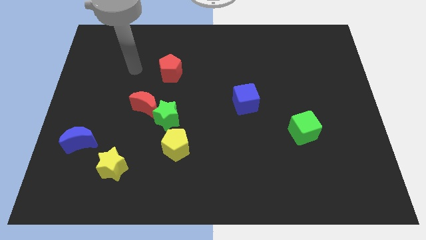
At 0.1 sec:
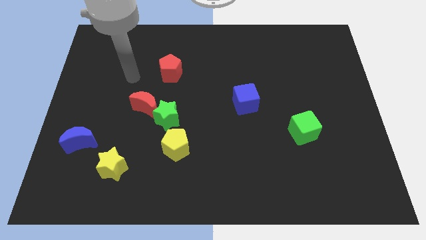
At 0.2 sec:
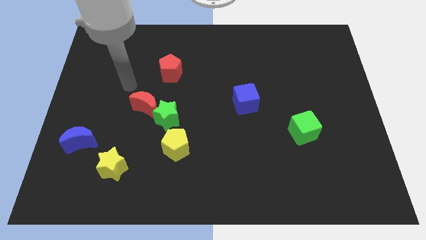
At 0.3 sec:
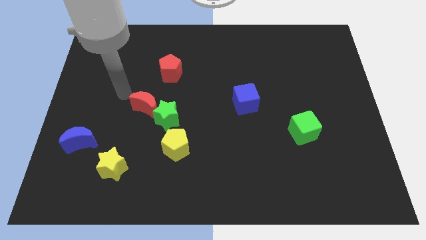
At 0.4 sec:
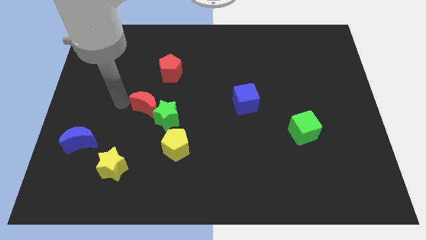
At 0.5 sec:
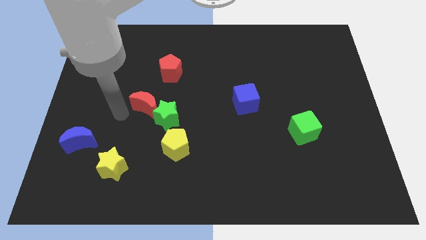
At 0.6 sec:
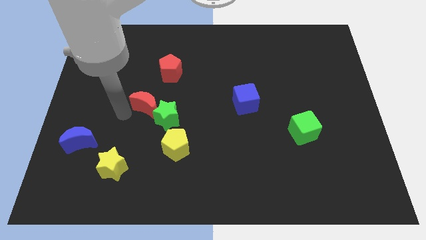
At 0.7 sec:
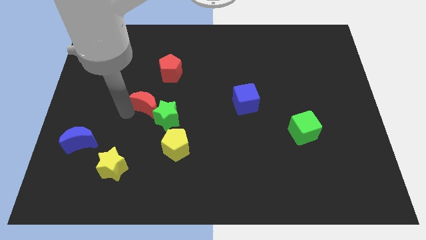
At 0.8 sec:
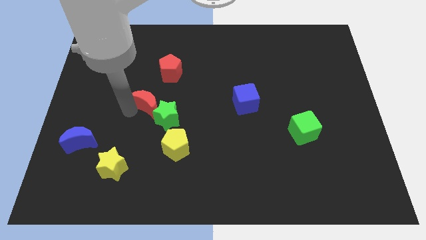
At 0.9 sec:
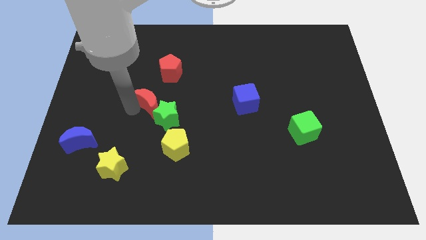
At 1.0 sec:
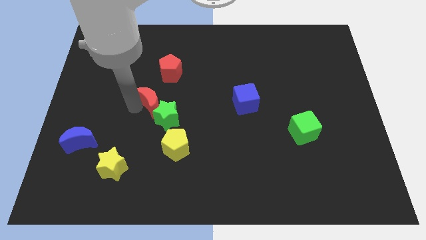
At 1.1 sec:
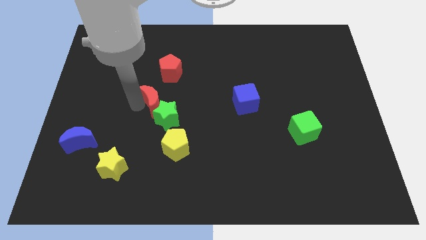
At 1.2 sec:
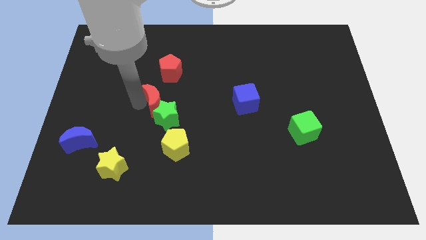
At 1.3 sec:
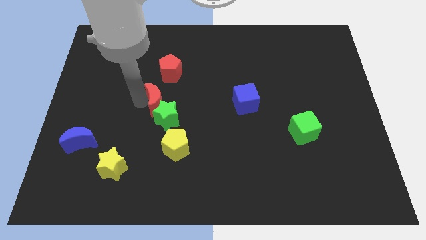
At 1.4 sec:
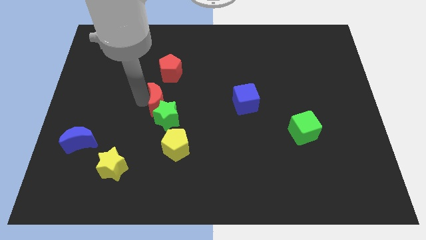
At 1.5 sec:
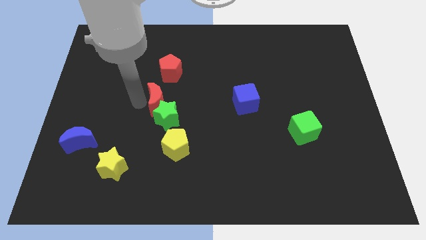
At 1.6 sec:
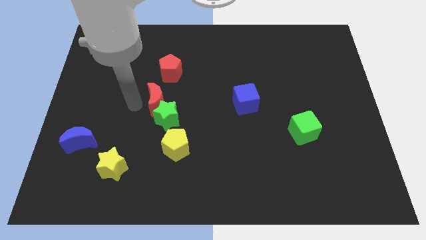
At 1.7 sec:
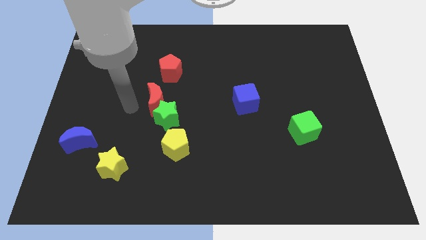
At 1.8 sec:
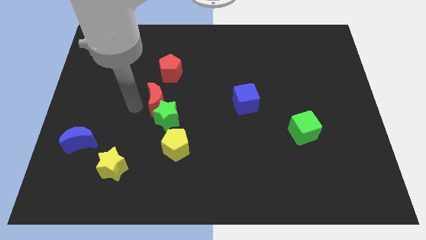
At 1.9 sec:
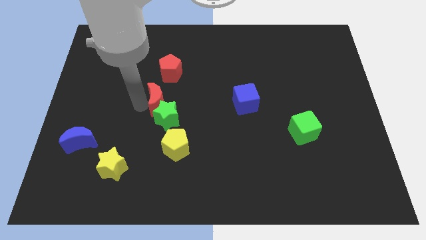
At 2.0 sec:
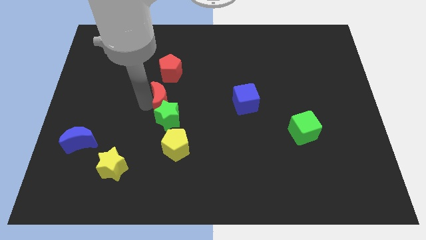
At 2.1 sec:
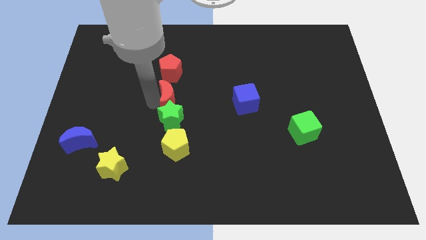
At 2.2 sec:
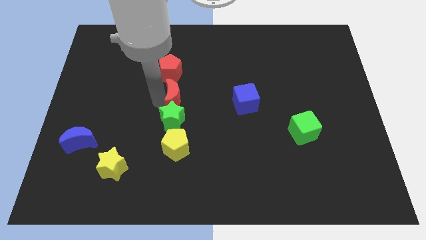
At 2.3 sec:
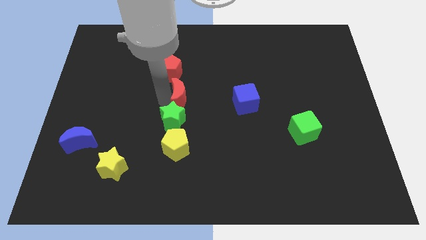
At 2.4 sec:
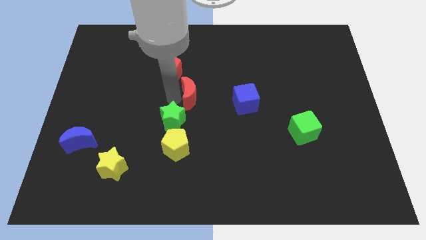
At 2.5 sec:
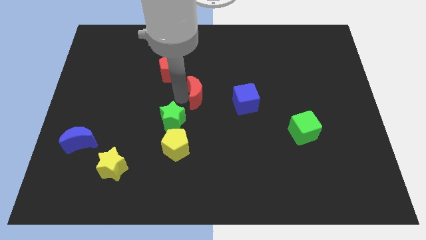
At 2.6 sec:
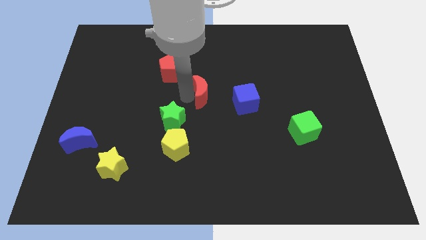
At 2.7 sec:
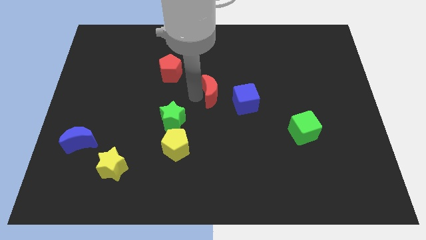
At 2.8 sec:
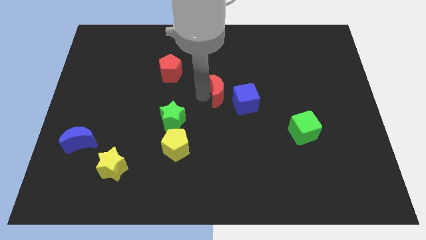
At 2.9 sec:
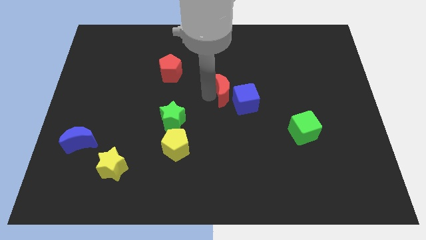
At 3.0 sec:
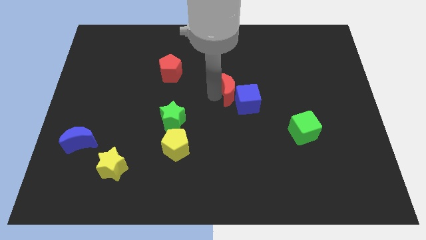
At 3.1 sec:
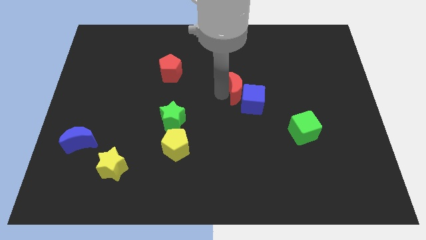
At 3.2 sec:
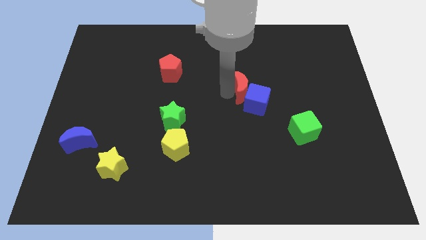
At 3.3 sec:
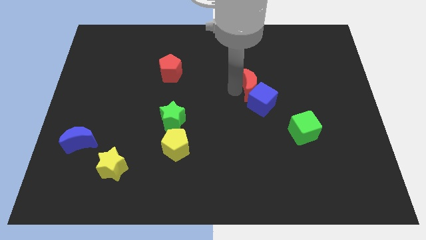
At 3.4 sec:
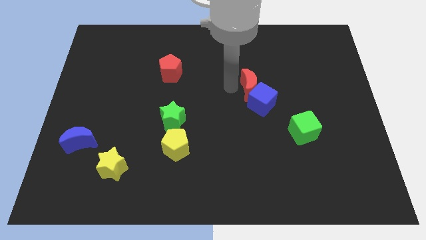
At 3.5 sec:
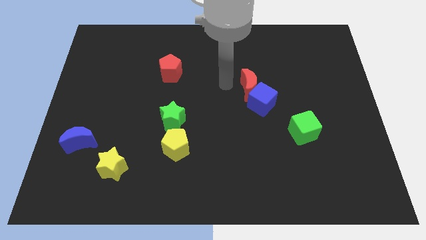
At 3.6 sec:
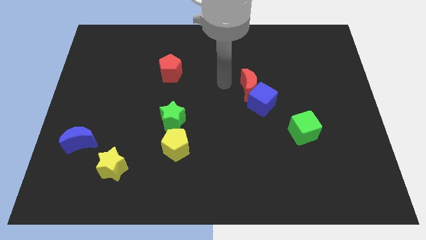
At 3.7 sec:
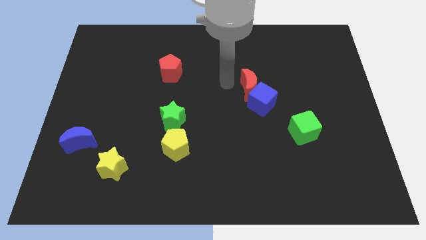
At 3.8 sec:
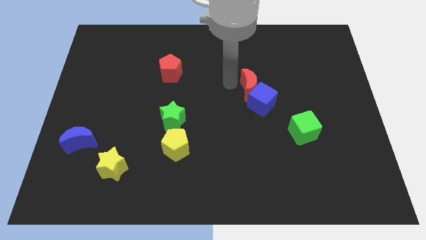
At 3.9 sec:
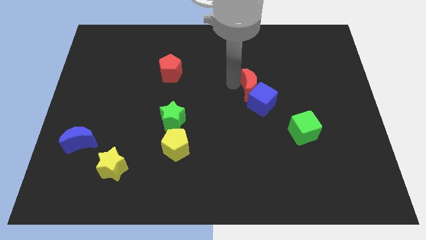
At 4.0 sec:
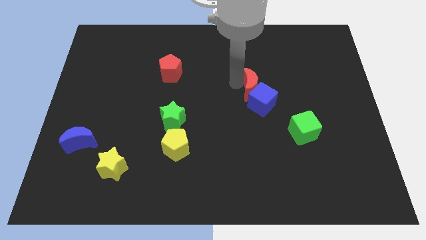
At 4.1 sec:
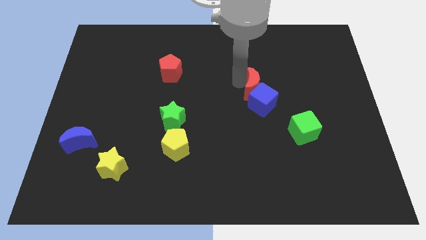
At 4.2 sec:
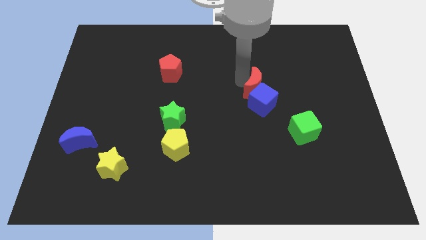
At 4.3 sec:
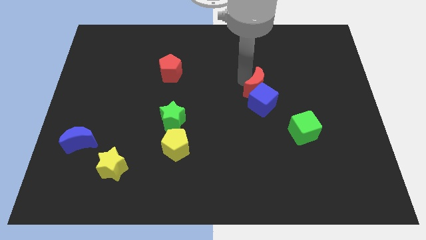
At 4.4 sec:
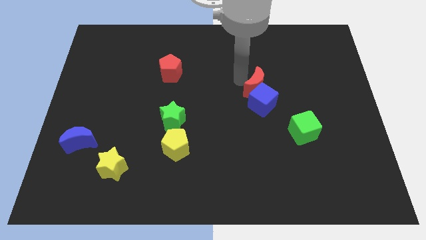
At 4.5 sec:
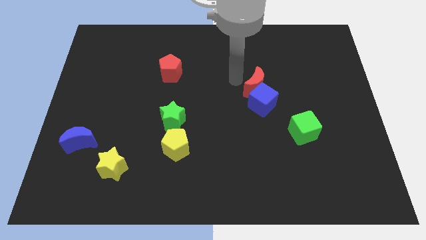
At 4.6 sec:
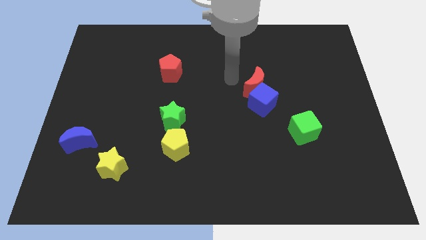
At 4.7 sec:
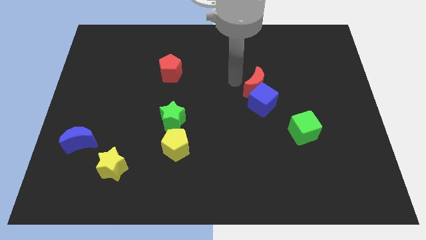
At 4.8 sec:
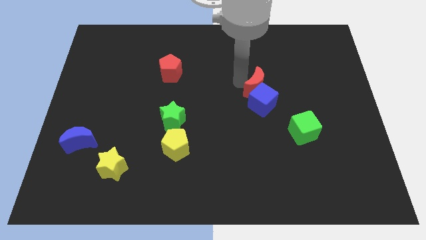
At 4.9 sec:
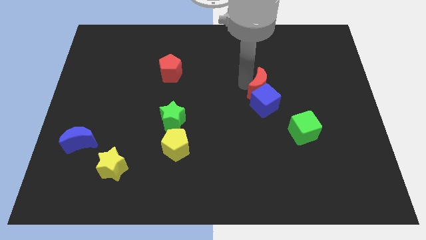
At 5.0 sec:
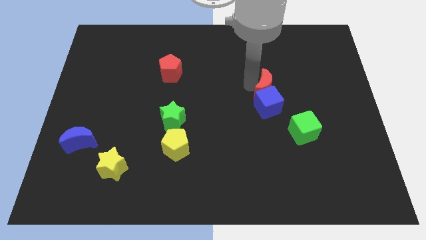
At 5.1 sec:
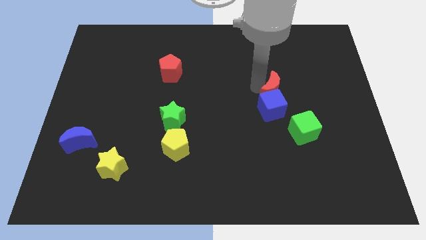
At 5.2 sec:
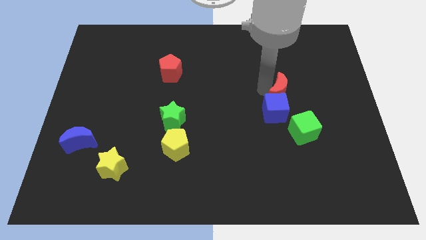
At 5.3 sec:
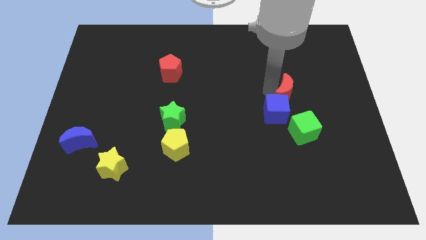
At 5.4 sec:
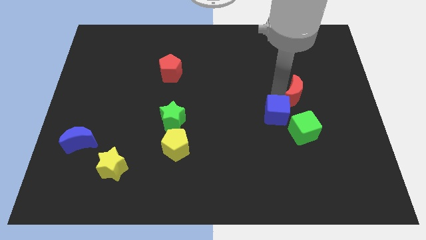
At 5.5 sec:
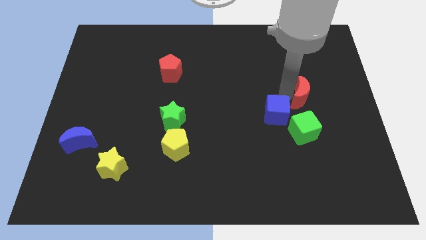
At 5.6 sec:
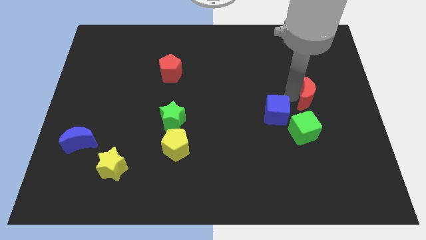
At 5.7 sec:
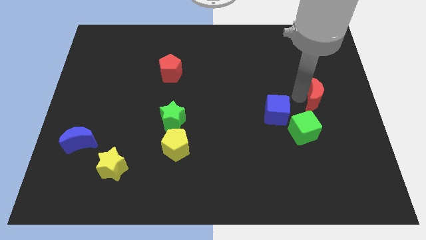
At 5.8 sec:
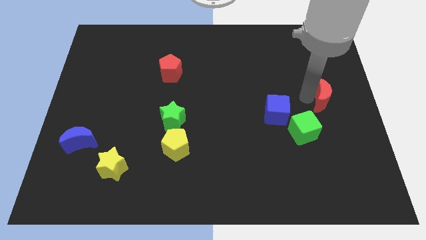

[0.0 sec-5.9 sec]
slide the red moon to the center right

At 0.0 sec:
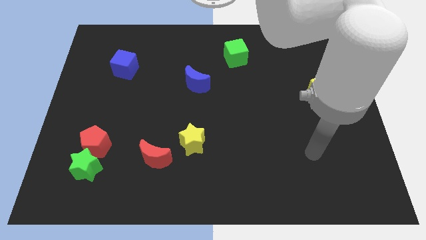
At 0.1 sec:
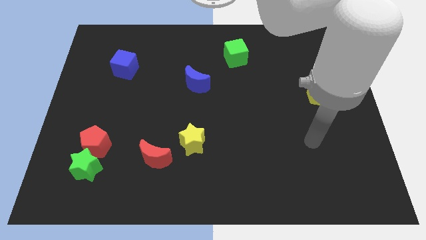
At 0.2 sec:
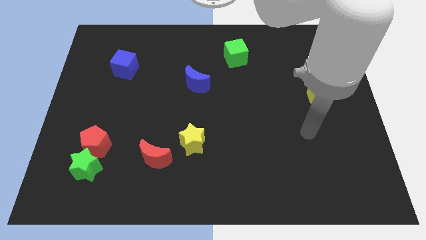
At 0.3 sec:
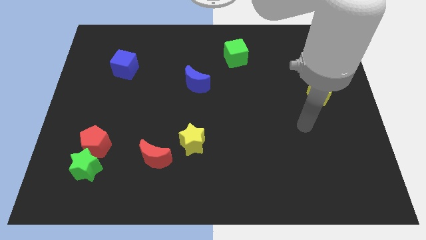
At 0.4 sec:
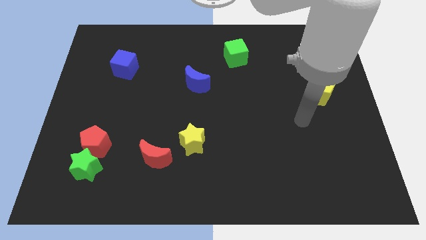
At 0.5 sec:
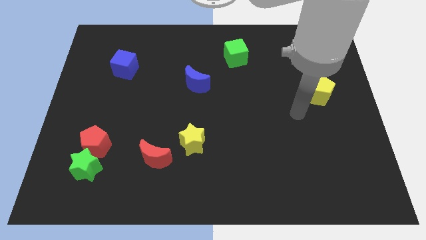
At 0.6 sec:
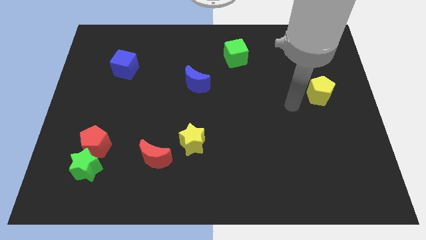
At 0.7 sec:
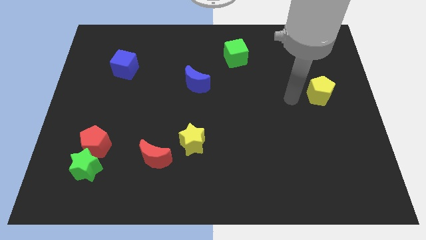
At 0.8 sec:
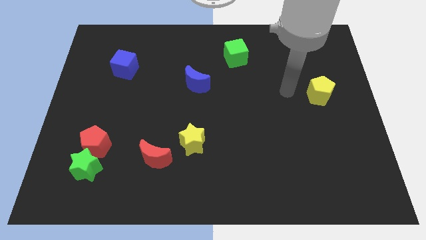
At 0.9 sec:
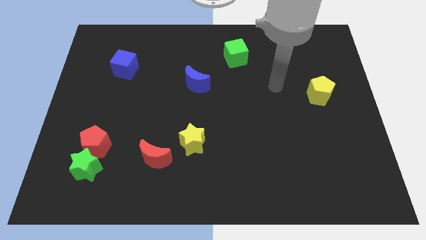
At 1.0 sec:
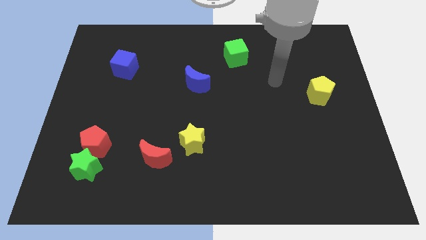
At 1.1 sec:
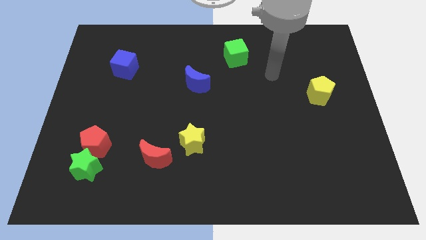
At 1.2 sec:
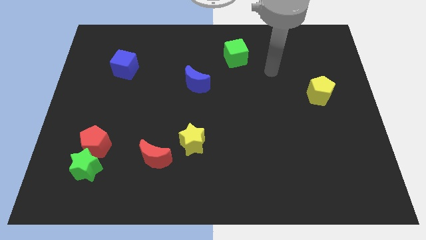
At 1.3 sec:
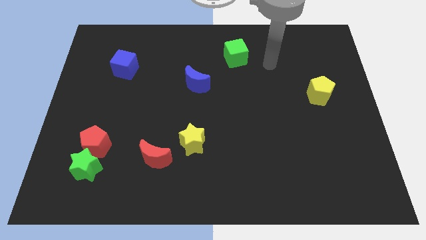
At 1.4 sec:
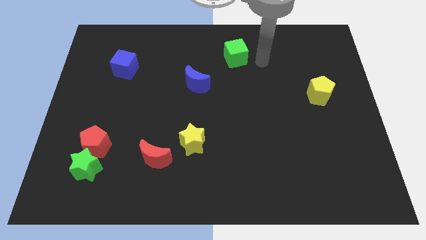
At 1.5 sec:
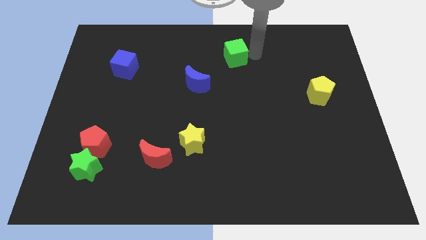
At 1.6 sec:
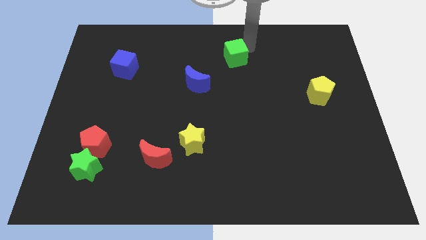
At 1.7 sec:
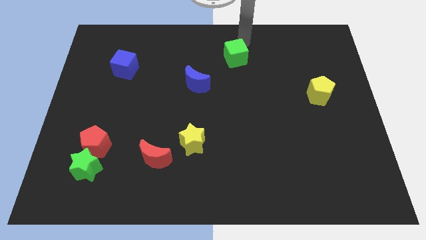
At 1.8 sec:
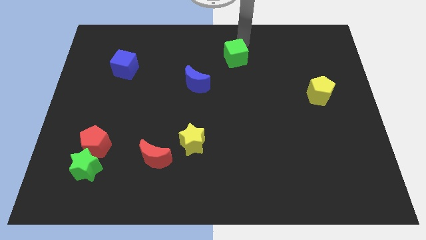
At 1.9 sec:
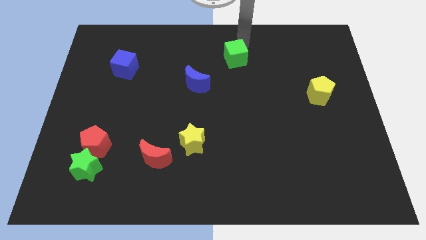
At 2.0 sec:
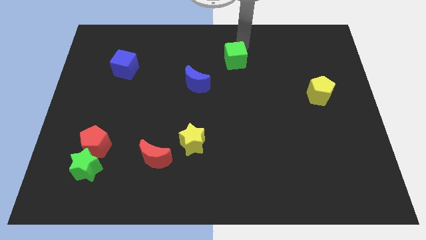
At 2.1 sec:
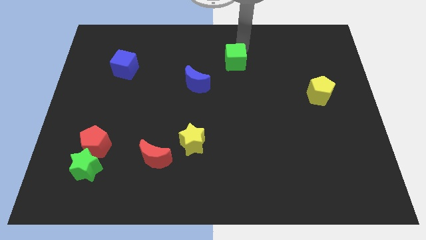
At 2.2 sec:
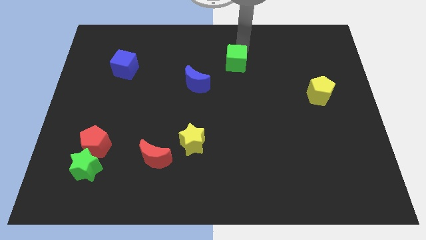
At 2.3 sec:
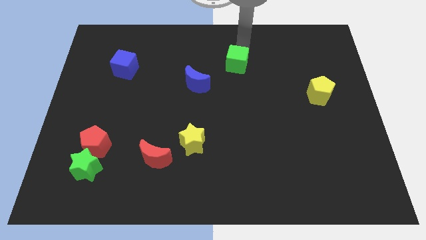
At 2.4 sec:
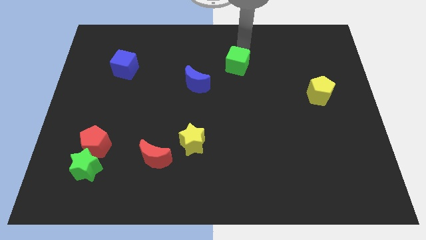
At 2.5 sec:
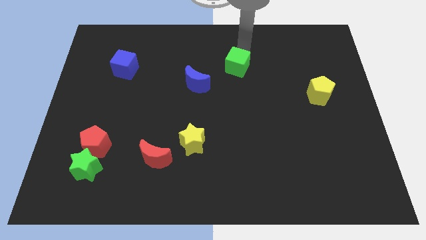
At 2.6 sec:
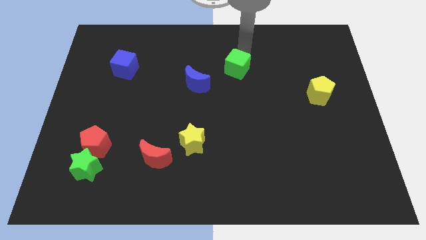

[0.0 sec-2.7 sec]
slide the green cube to the center
